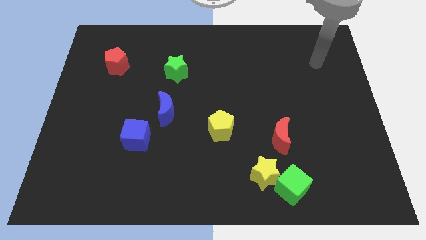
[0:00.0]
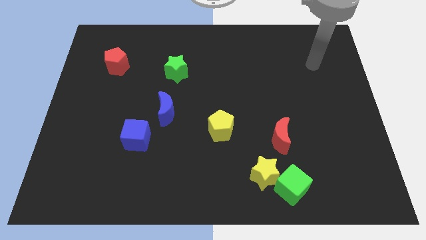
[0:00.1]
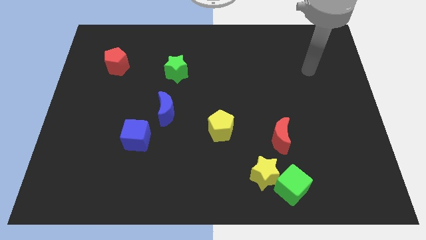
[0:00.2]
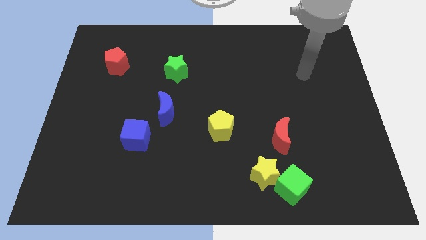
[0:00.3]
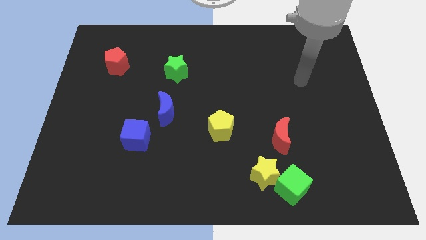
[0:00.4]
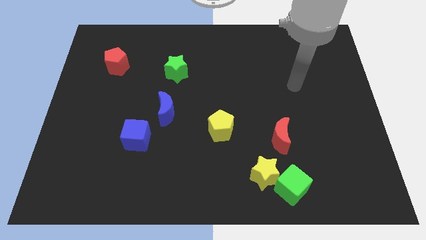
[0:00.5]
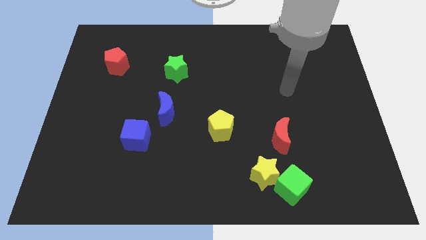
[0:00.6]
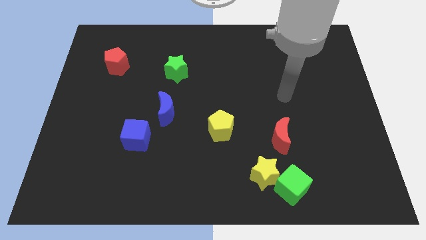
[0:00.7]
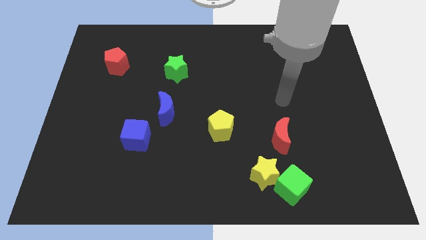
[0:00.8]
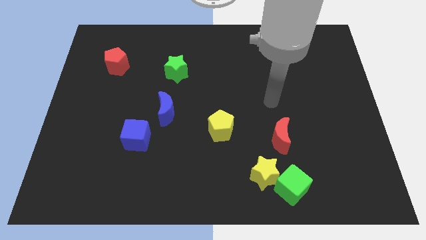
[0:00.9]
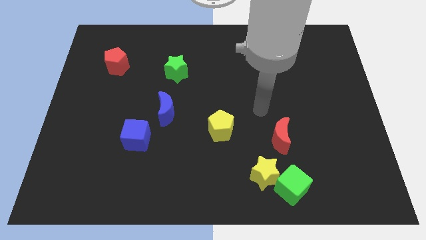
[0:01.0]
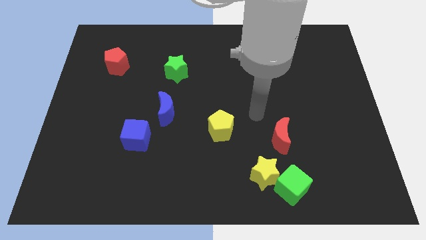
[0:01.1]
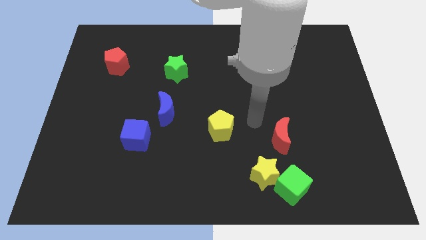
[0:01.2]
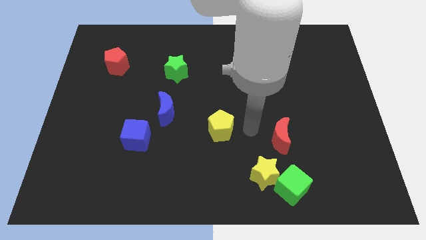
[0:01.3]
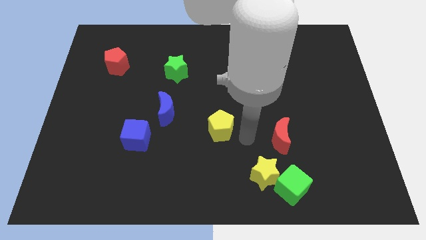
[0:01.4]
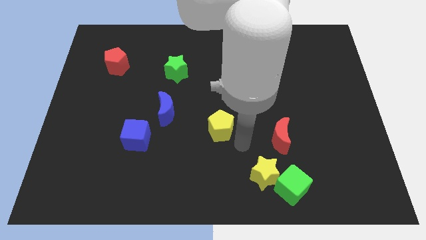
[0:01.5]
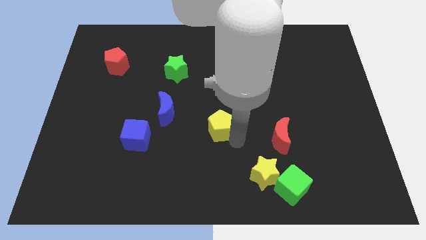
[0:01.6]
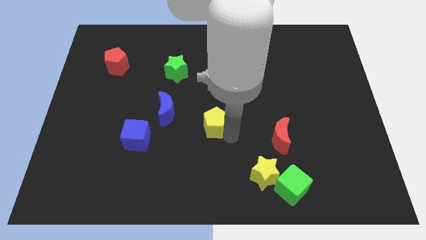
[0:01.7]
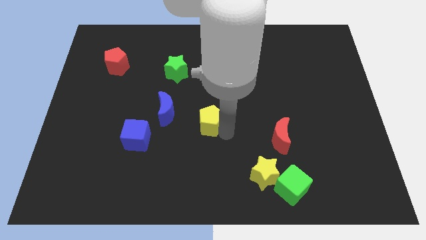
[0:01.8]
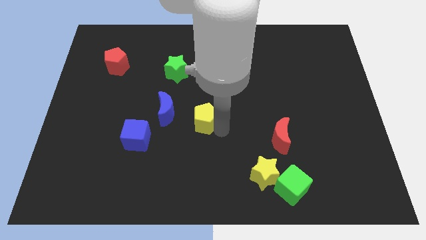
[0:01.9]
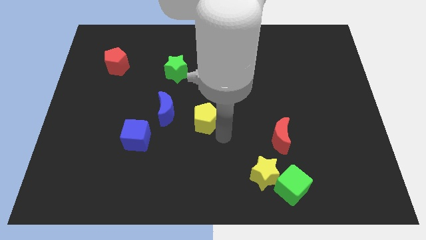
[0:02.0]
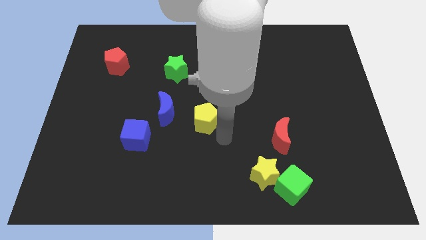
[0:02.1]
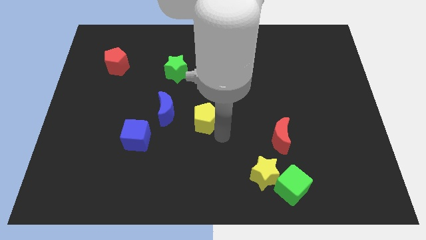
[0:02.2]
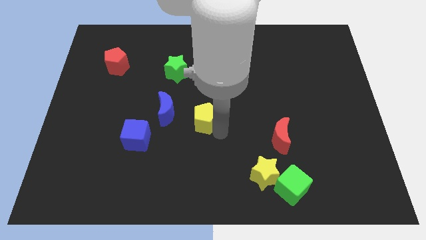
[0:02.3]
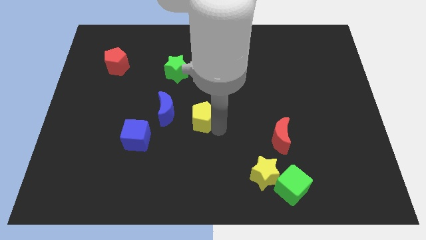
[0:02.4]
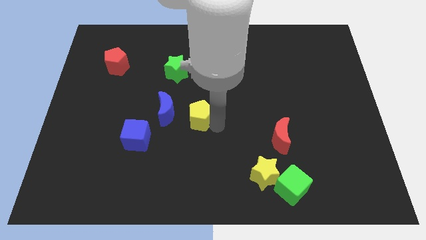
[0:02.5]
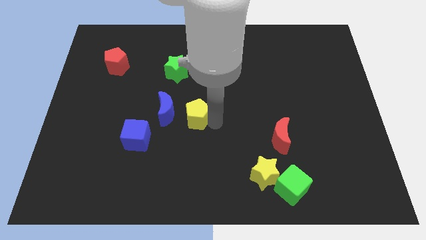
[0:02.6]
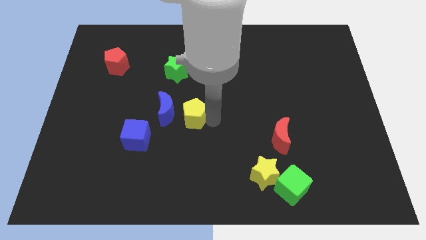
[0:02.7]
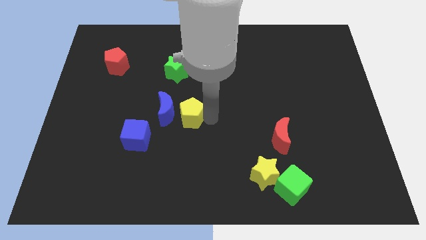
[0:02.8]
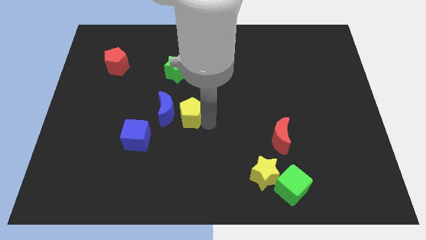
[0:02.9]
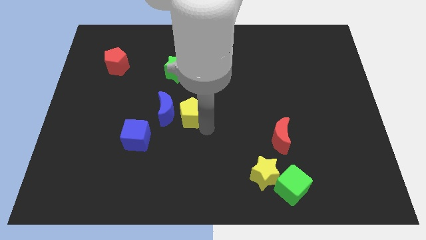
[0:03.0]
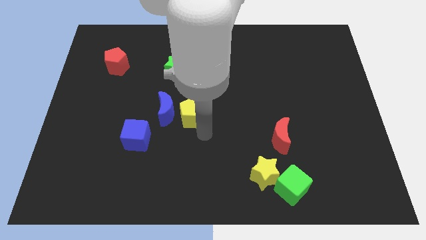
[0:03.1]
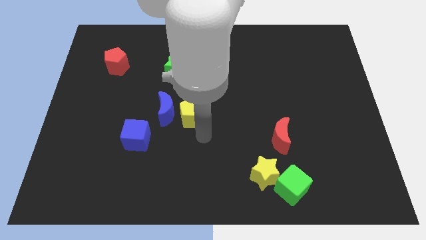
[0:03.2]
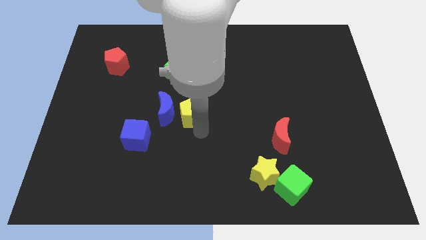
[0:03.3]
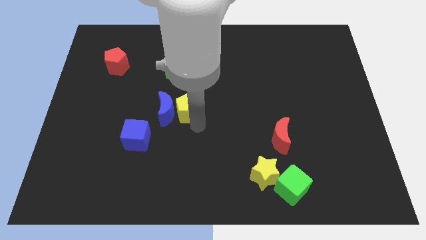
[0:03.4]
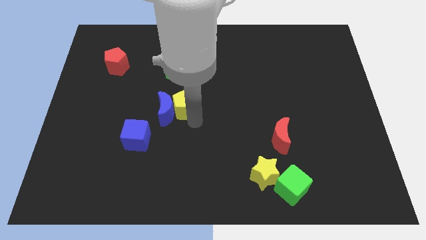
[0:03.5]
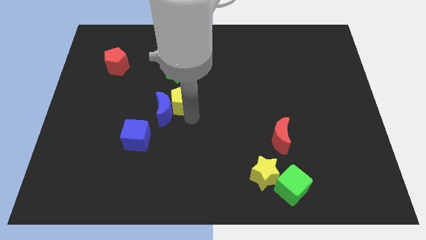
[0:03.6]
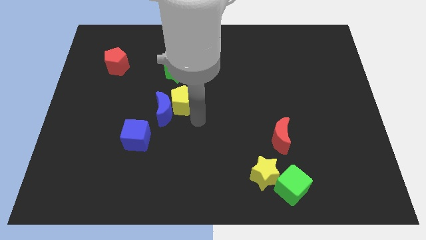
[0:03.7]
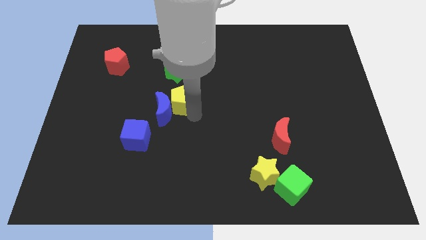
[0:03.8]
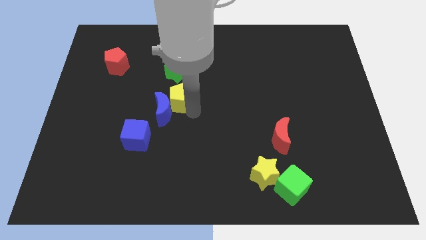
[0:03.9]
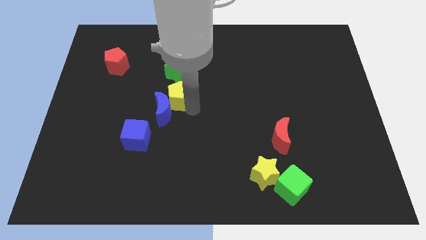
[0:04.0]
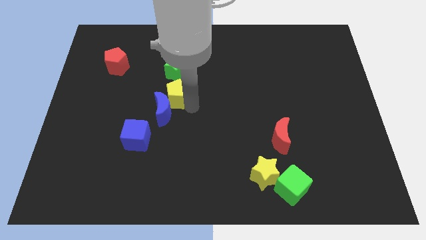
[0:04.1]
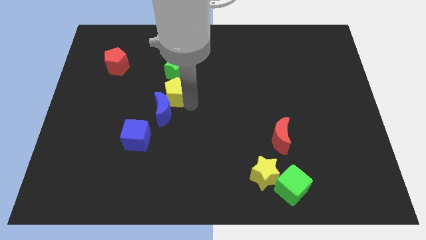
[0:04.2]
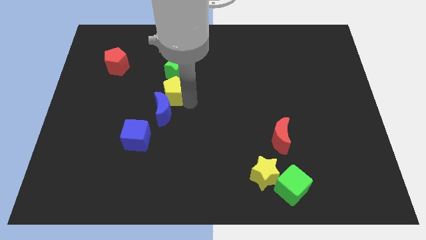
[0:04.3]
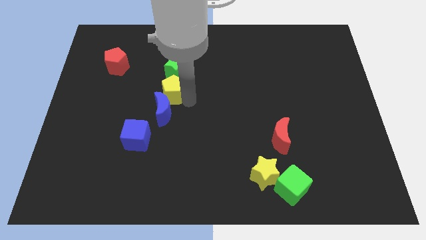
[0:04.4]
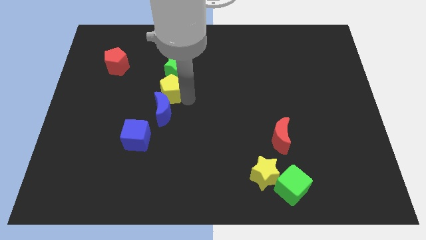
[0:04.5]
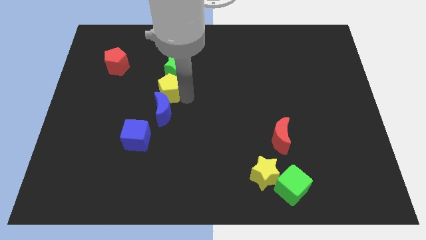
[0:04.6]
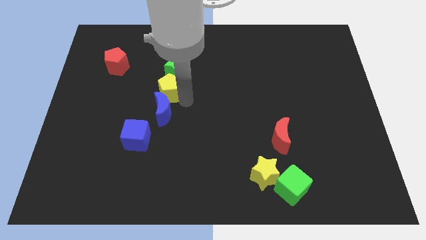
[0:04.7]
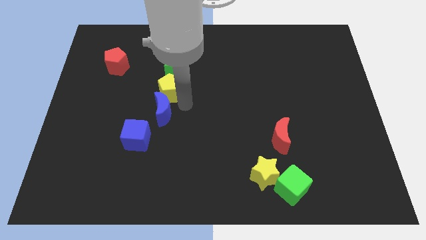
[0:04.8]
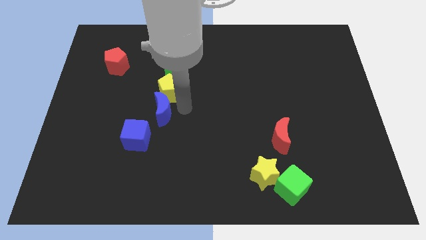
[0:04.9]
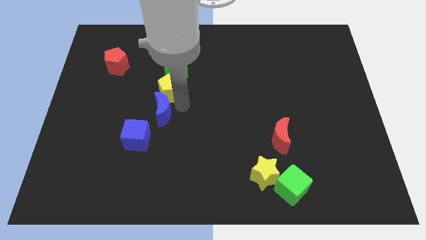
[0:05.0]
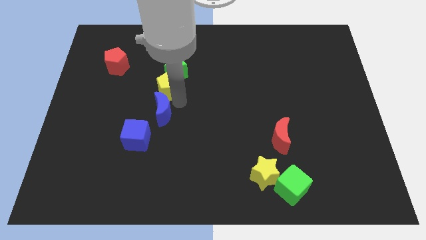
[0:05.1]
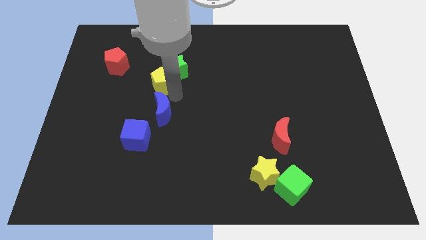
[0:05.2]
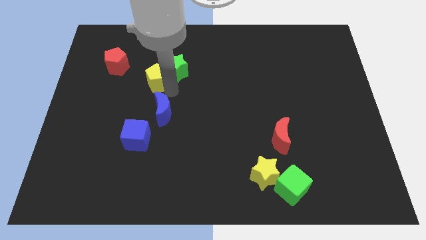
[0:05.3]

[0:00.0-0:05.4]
move the yellow pentagon upwards and then left

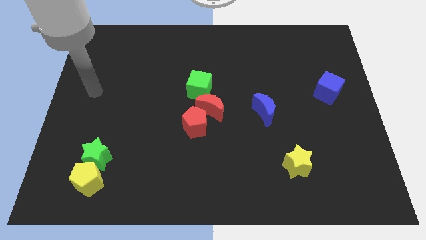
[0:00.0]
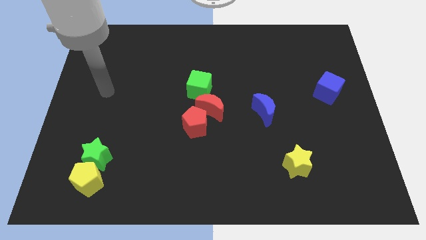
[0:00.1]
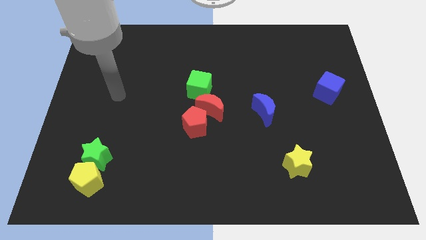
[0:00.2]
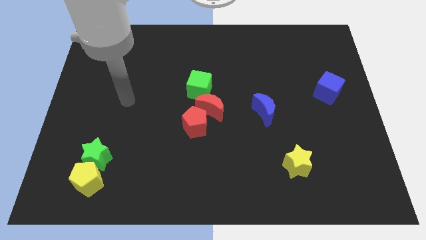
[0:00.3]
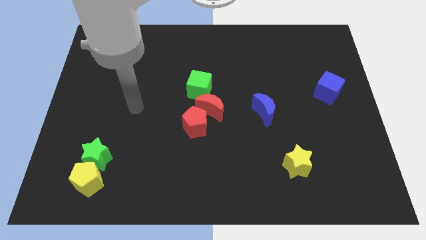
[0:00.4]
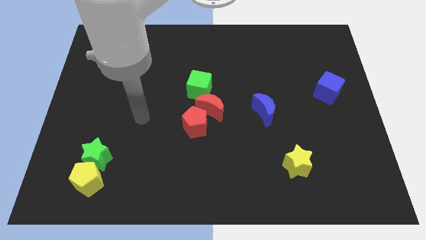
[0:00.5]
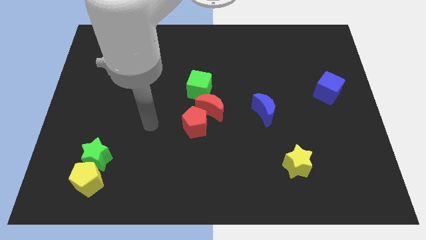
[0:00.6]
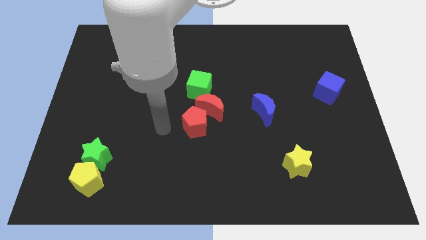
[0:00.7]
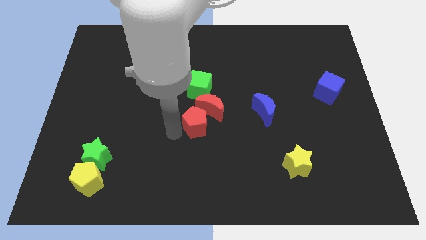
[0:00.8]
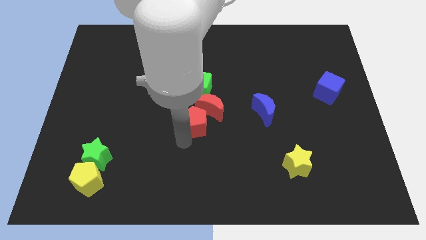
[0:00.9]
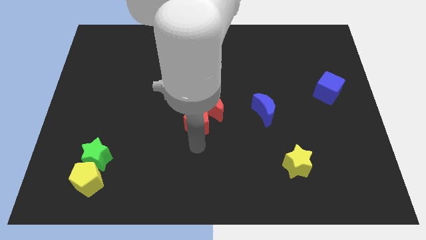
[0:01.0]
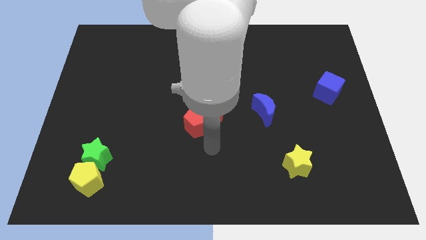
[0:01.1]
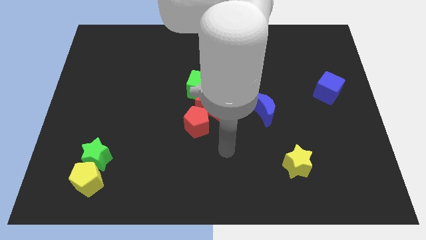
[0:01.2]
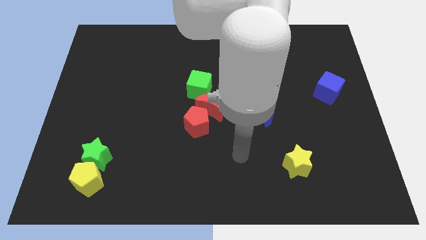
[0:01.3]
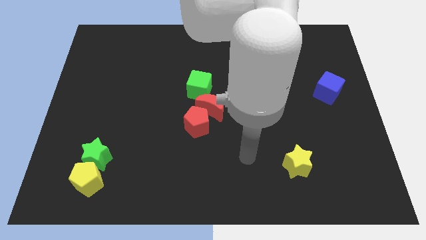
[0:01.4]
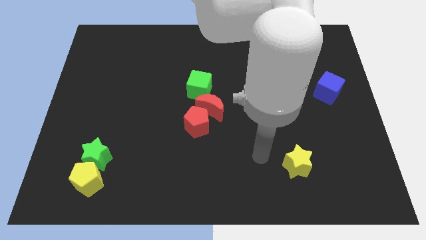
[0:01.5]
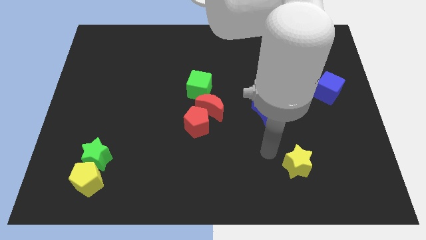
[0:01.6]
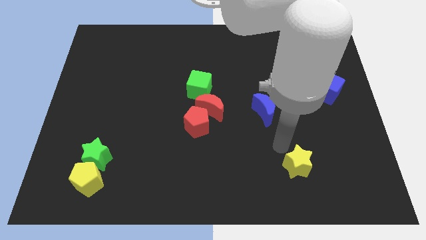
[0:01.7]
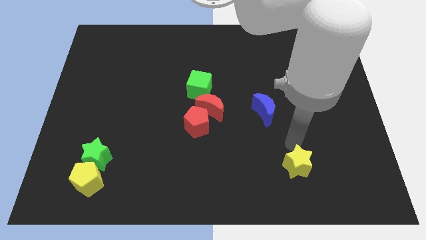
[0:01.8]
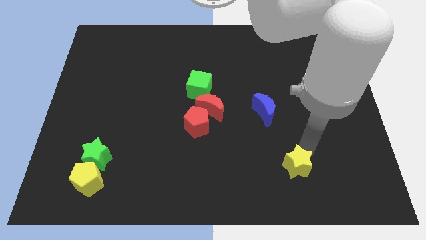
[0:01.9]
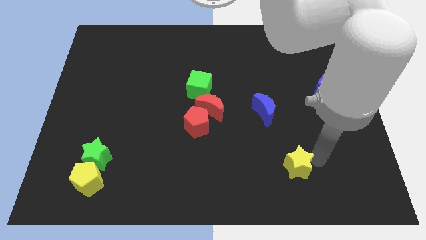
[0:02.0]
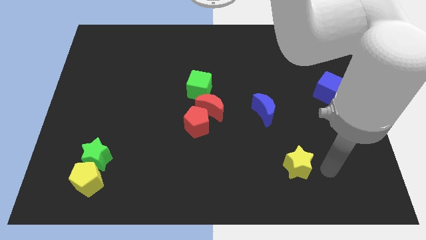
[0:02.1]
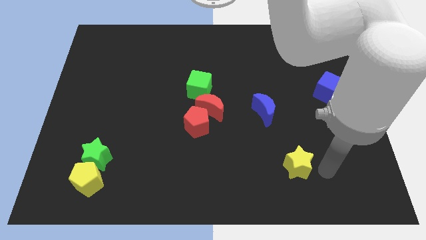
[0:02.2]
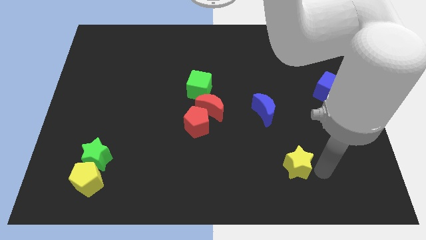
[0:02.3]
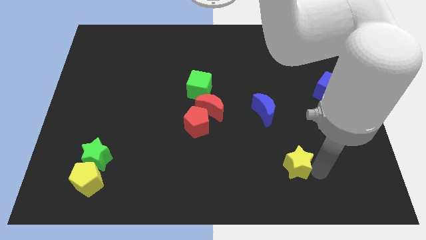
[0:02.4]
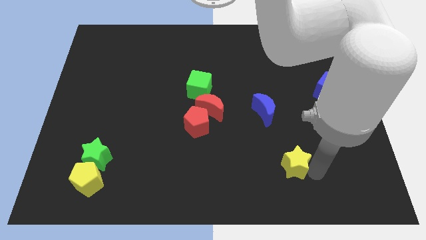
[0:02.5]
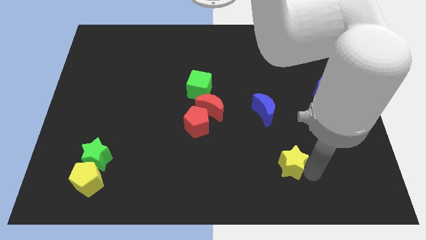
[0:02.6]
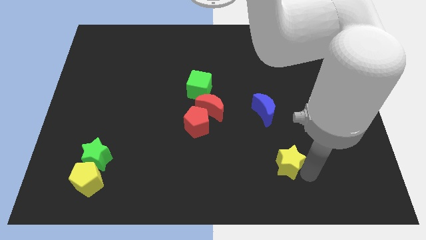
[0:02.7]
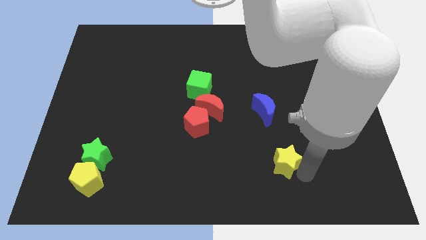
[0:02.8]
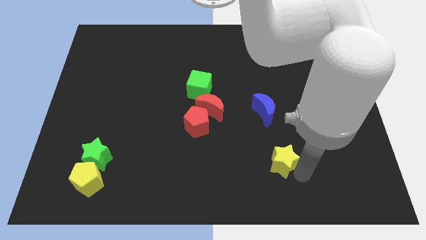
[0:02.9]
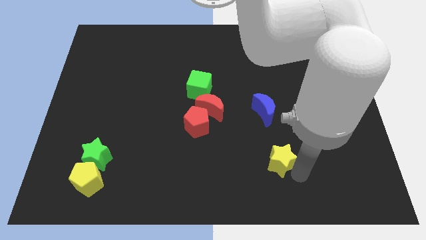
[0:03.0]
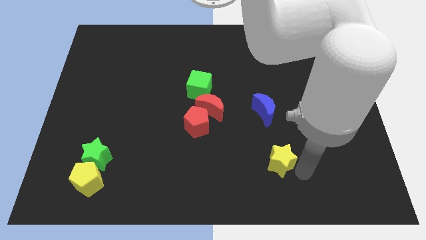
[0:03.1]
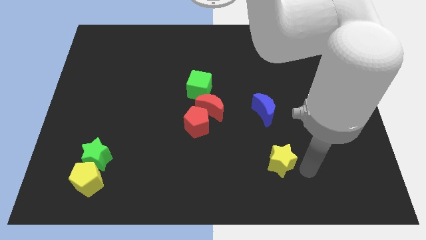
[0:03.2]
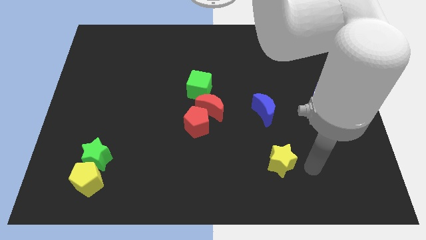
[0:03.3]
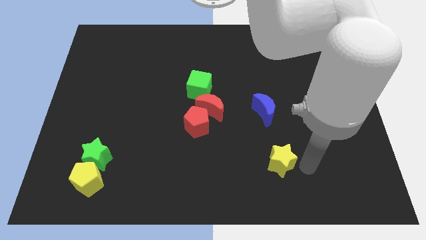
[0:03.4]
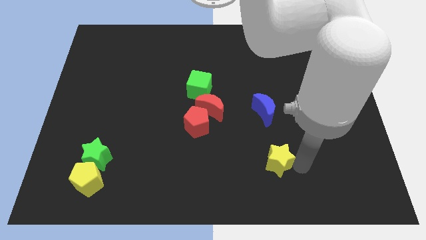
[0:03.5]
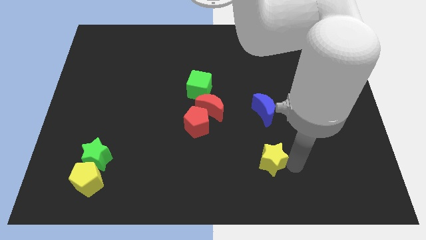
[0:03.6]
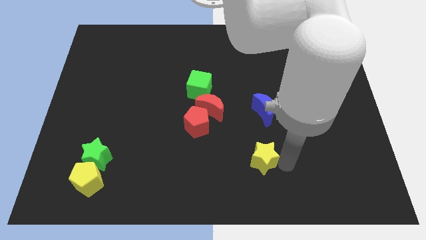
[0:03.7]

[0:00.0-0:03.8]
push the yellow star a bit left
